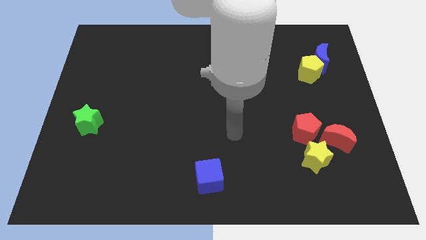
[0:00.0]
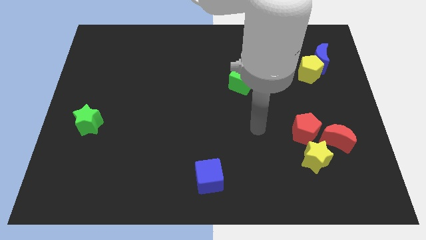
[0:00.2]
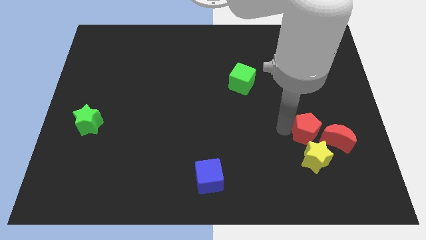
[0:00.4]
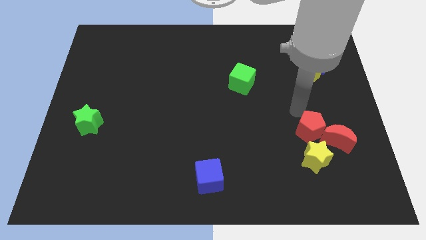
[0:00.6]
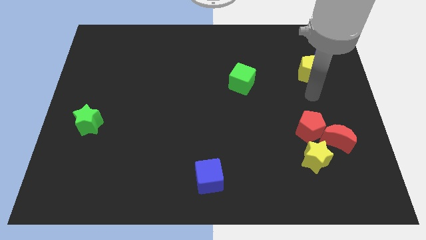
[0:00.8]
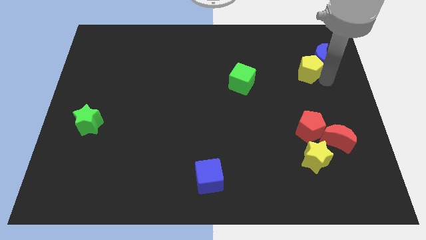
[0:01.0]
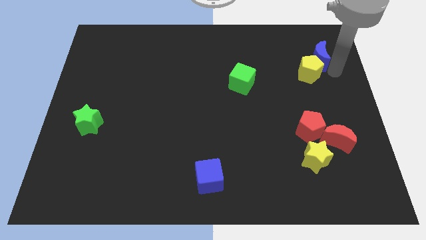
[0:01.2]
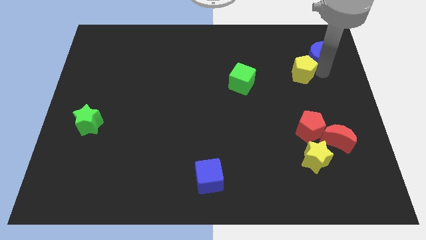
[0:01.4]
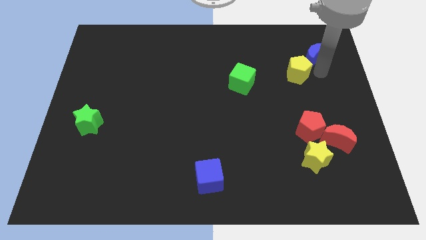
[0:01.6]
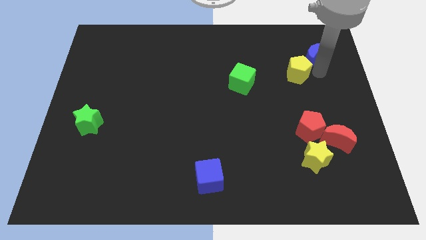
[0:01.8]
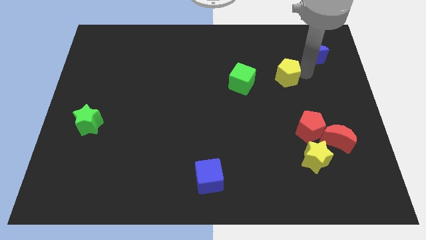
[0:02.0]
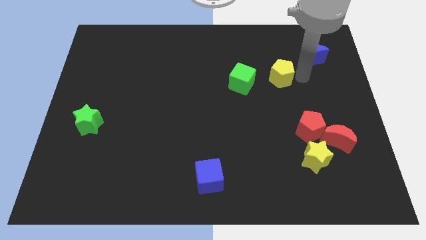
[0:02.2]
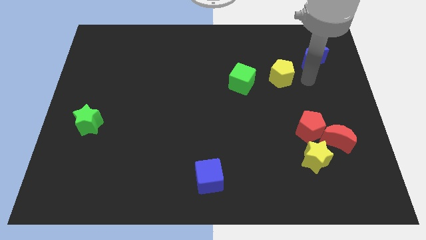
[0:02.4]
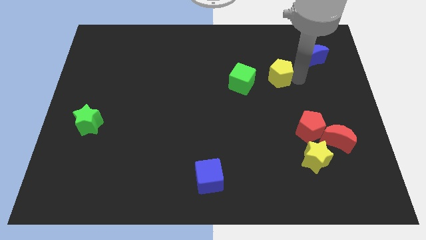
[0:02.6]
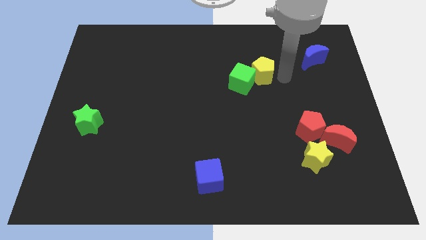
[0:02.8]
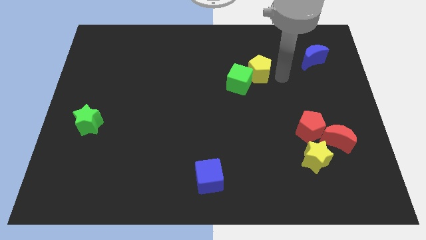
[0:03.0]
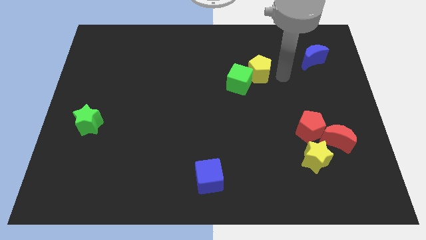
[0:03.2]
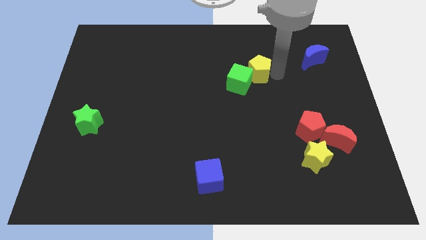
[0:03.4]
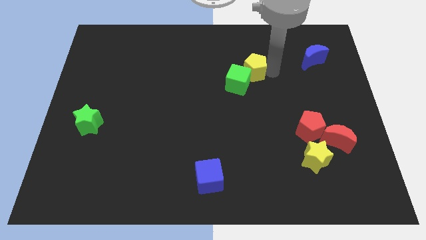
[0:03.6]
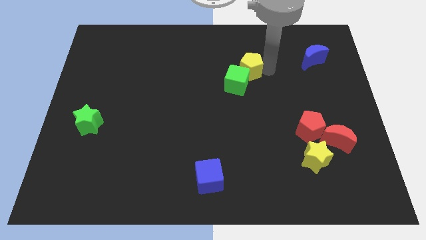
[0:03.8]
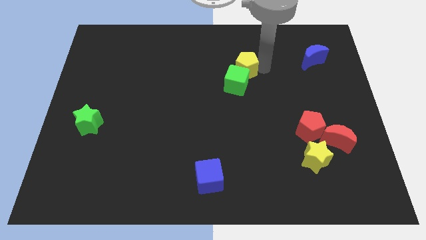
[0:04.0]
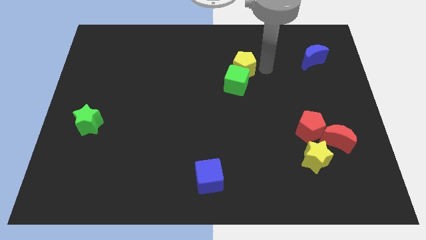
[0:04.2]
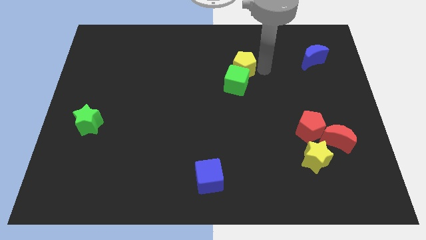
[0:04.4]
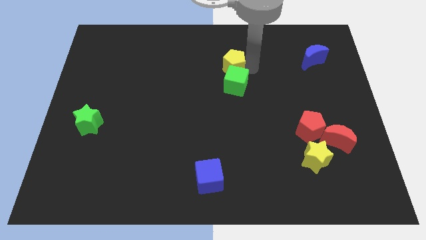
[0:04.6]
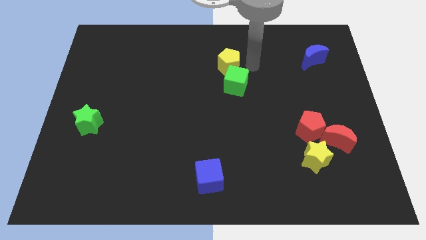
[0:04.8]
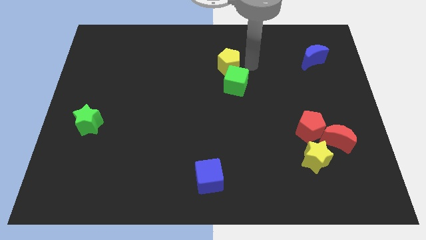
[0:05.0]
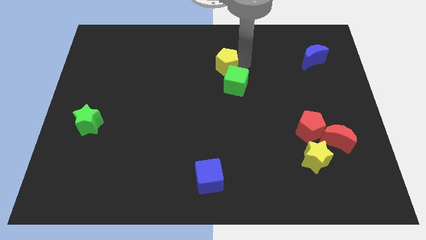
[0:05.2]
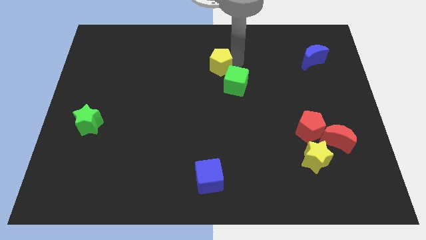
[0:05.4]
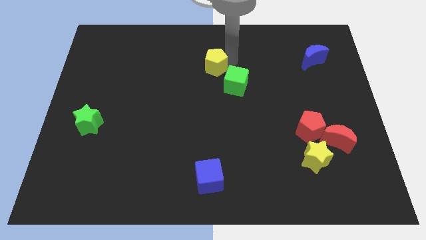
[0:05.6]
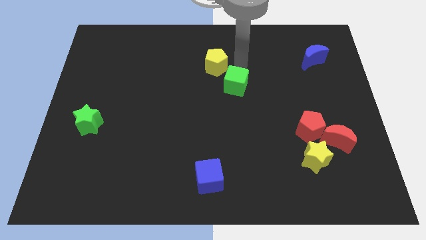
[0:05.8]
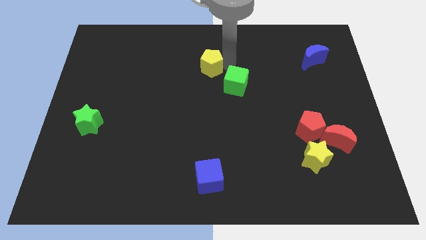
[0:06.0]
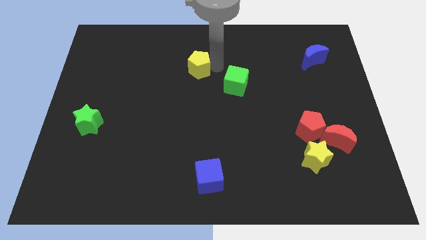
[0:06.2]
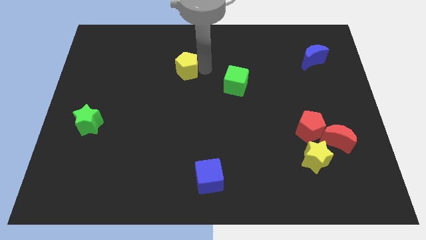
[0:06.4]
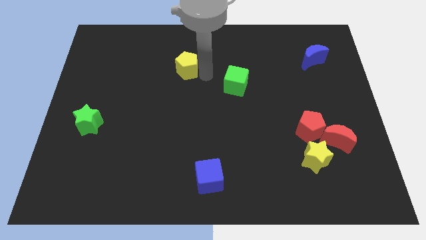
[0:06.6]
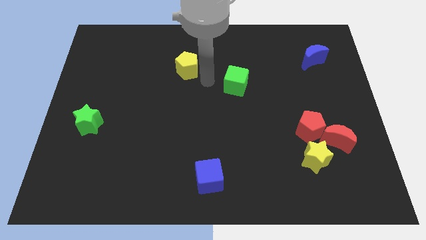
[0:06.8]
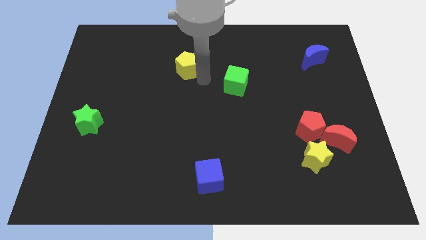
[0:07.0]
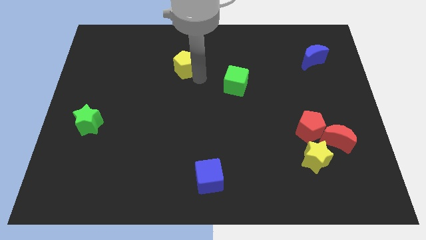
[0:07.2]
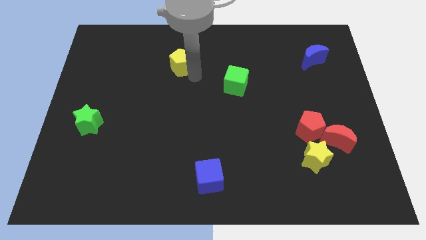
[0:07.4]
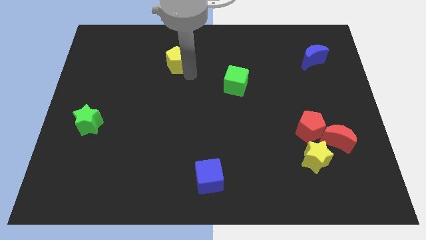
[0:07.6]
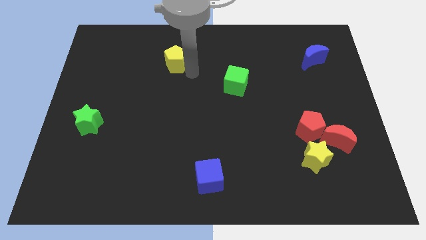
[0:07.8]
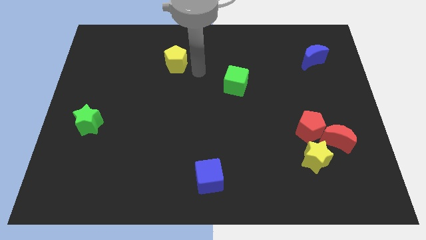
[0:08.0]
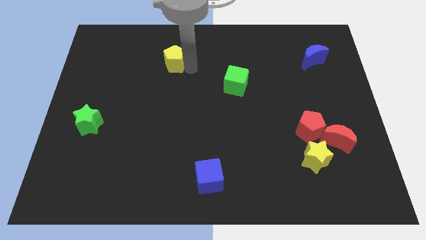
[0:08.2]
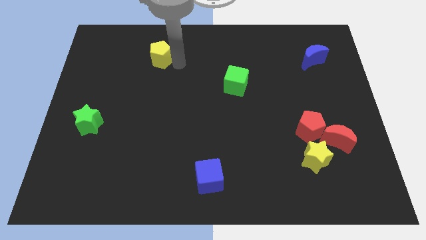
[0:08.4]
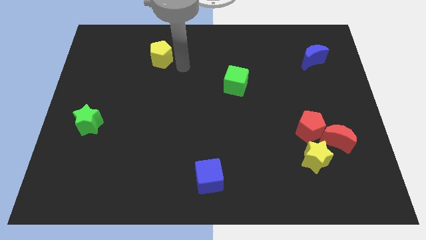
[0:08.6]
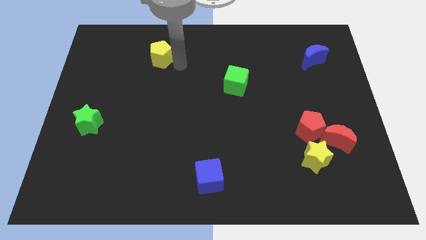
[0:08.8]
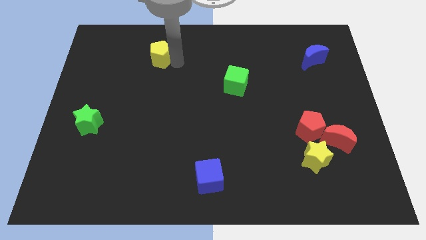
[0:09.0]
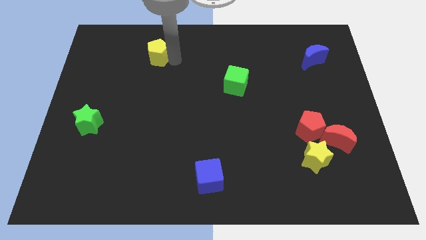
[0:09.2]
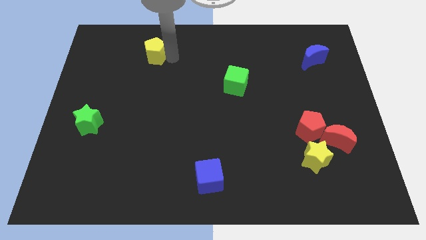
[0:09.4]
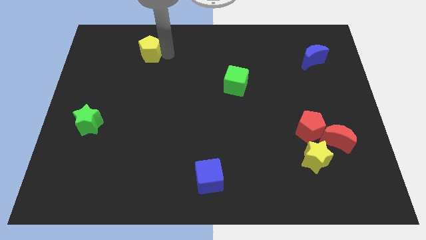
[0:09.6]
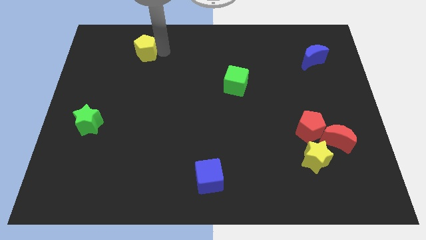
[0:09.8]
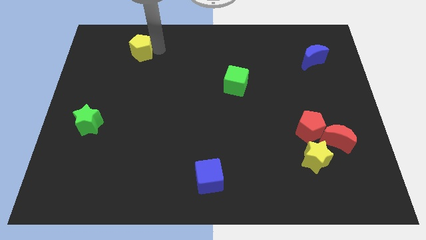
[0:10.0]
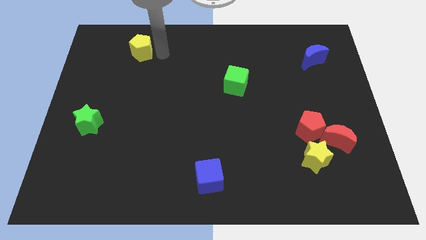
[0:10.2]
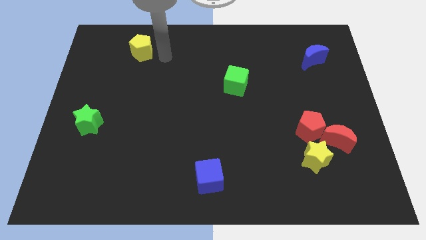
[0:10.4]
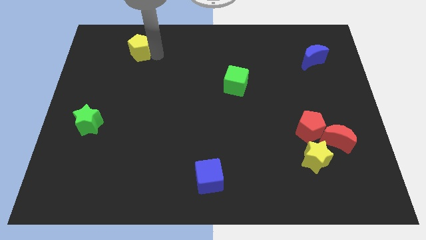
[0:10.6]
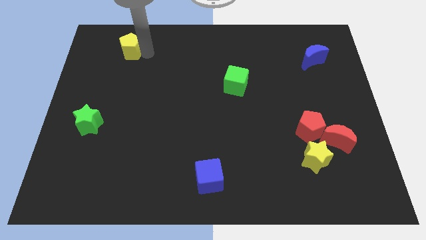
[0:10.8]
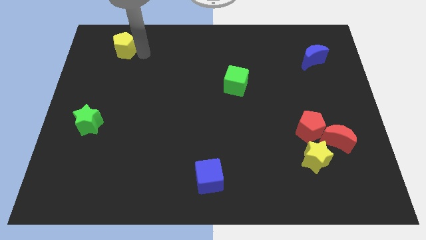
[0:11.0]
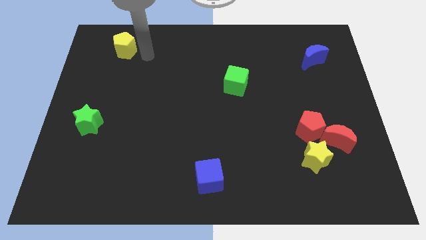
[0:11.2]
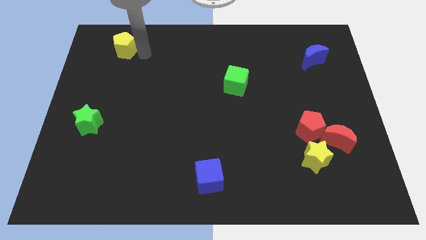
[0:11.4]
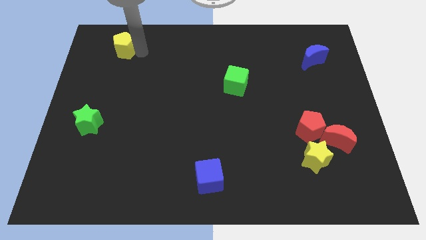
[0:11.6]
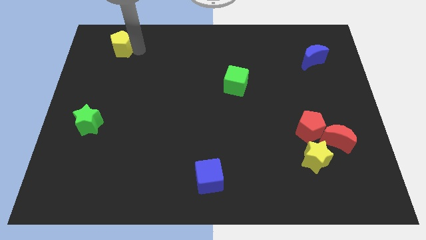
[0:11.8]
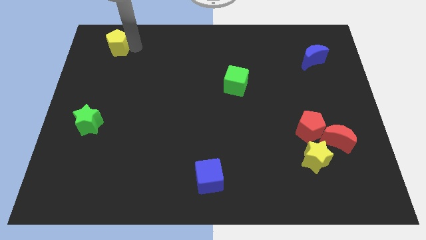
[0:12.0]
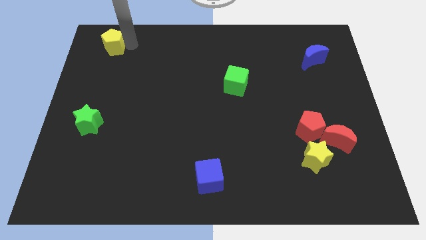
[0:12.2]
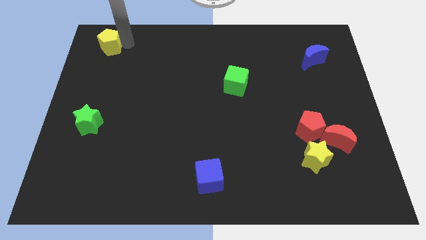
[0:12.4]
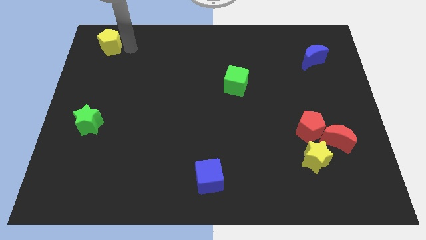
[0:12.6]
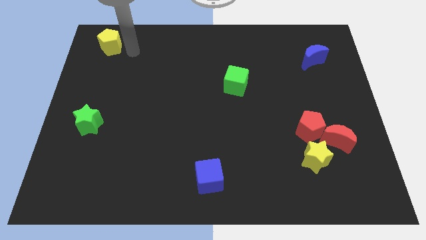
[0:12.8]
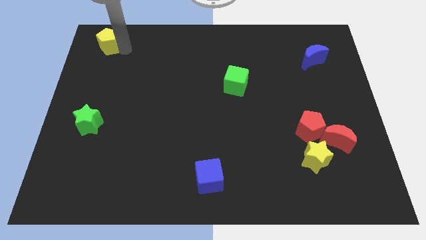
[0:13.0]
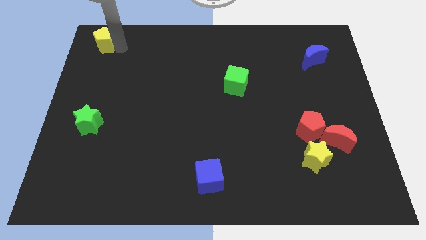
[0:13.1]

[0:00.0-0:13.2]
push the yellow pentagon to the upper left corner
